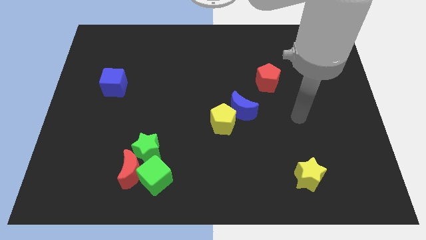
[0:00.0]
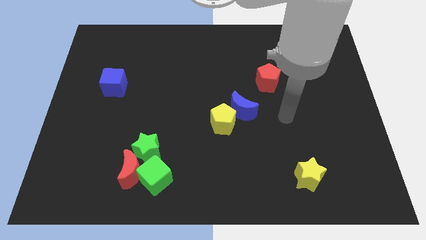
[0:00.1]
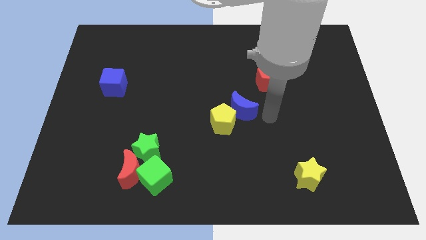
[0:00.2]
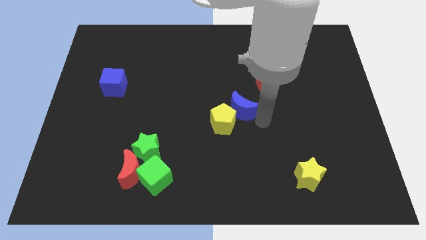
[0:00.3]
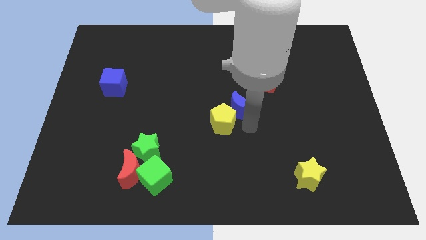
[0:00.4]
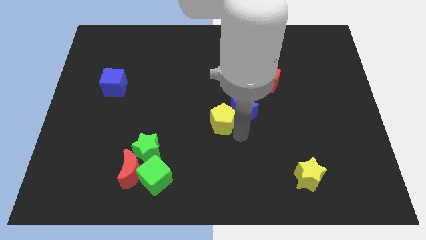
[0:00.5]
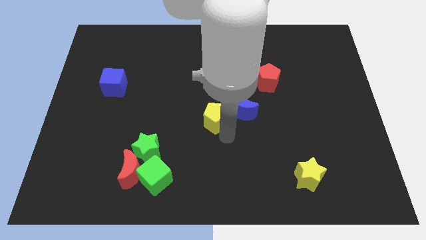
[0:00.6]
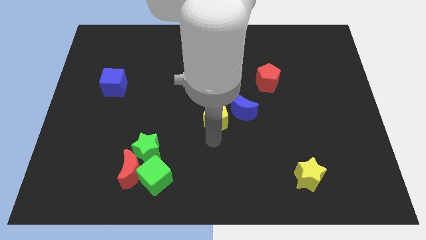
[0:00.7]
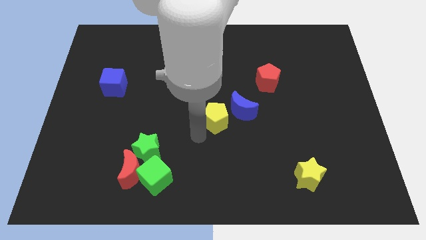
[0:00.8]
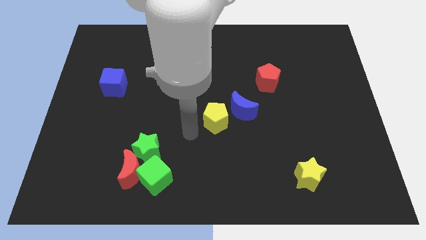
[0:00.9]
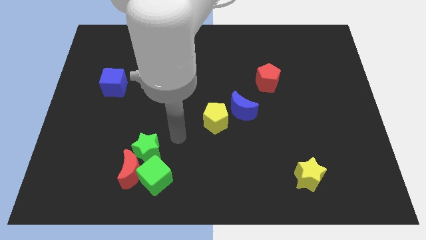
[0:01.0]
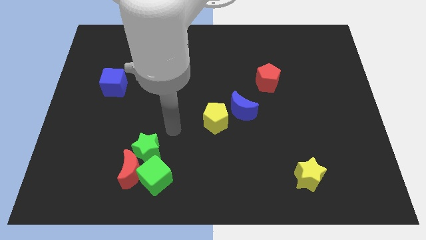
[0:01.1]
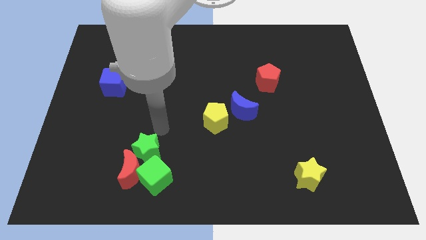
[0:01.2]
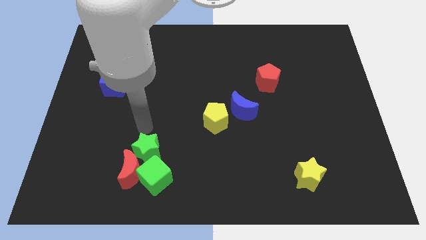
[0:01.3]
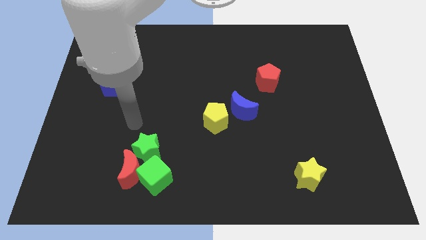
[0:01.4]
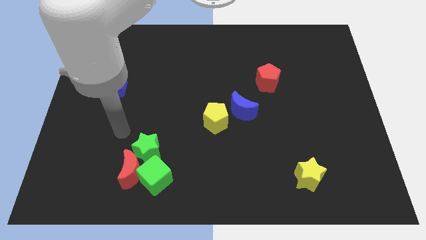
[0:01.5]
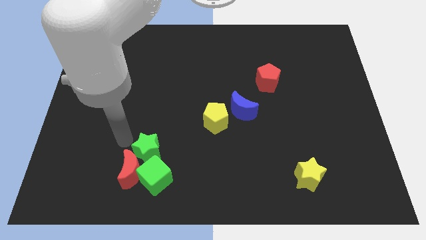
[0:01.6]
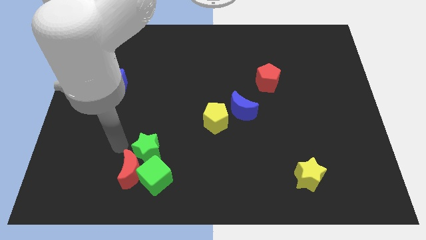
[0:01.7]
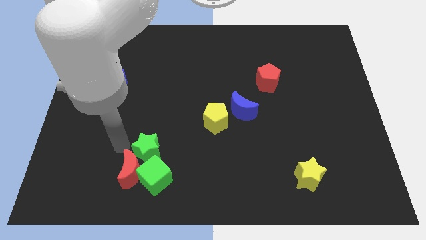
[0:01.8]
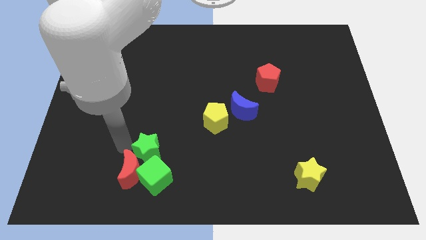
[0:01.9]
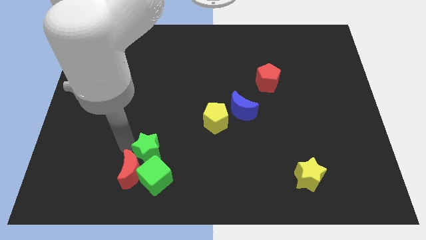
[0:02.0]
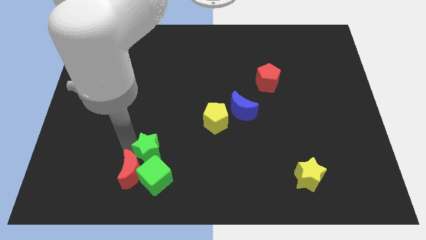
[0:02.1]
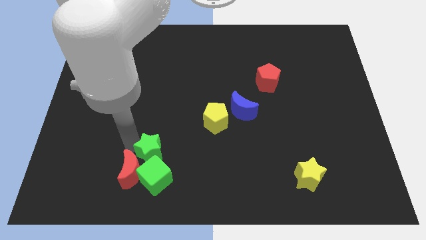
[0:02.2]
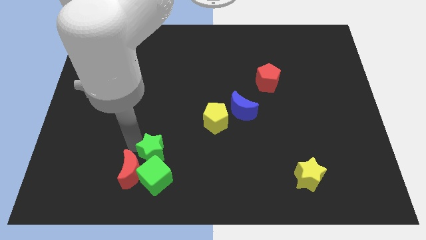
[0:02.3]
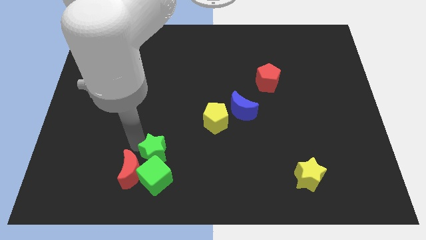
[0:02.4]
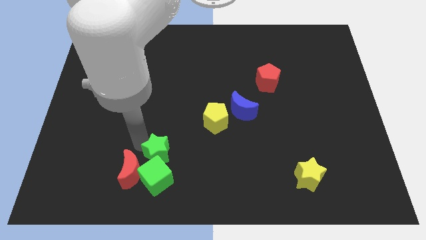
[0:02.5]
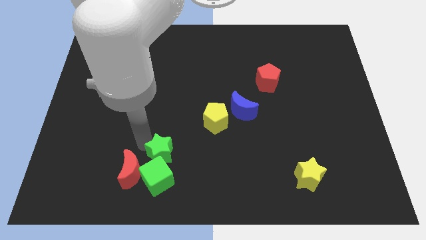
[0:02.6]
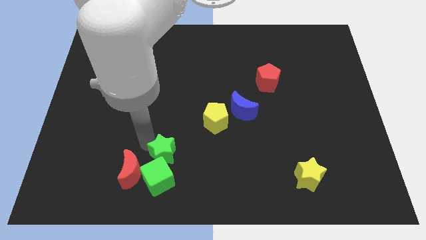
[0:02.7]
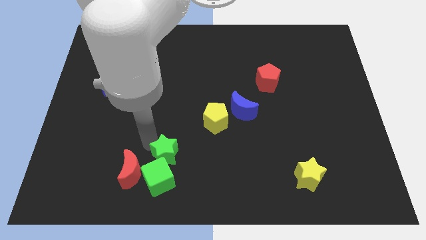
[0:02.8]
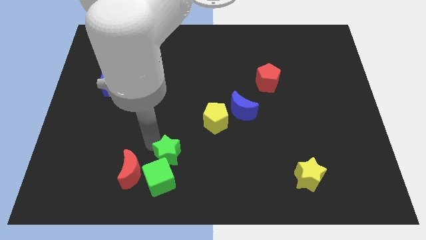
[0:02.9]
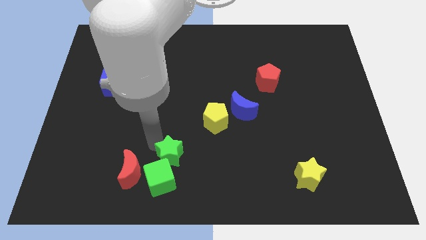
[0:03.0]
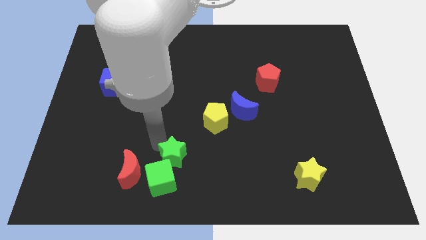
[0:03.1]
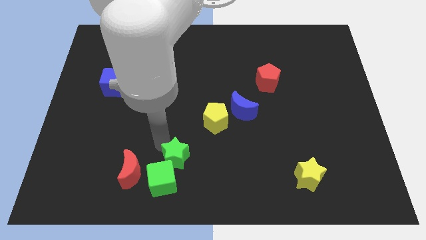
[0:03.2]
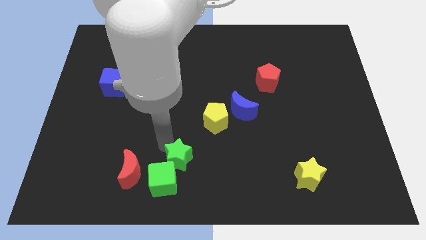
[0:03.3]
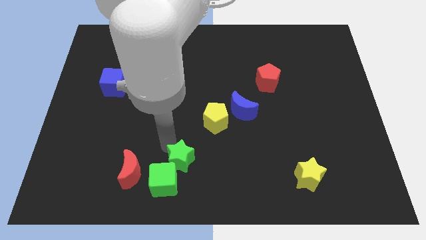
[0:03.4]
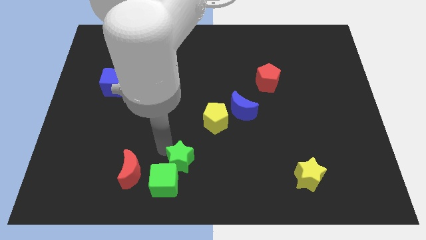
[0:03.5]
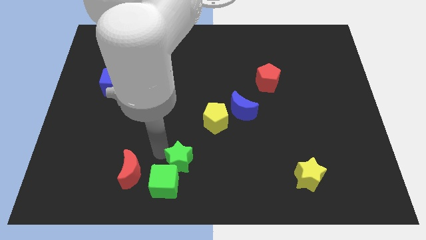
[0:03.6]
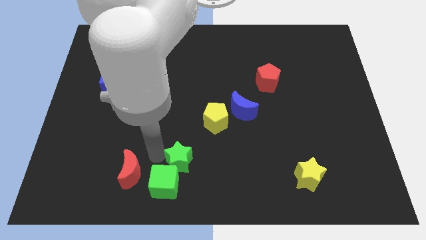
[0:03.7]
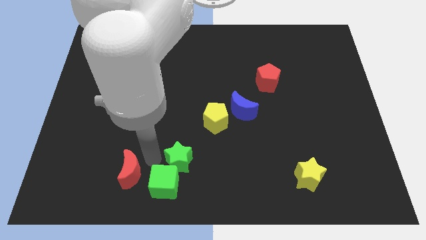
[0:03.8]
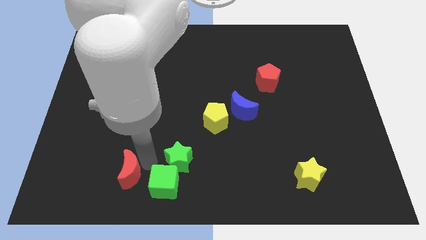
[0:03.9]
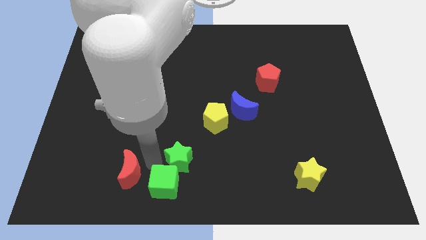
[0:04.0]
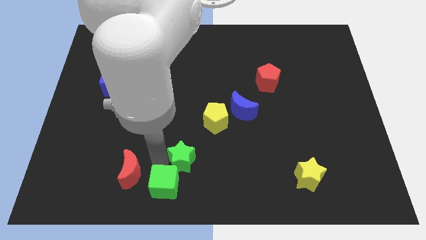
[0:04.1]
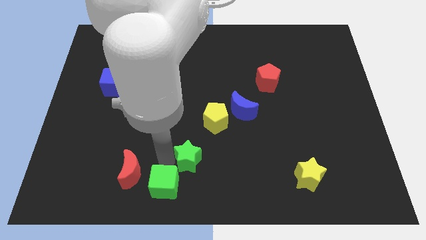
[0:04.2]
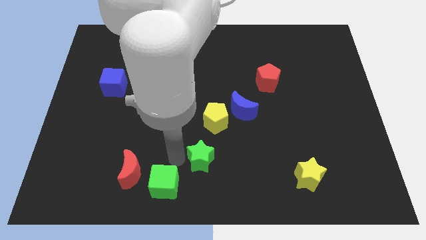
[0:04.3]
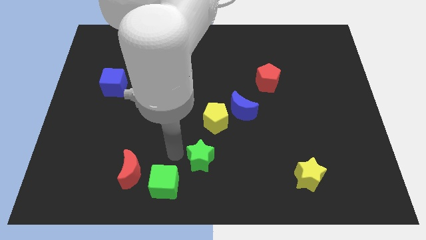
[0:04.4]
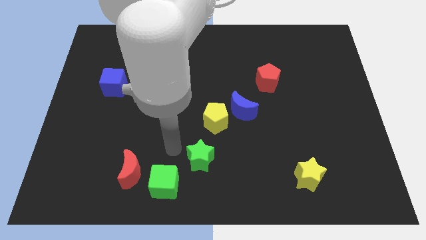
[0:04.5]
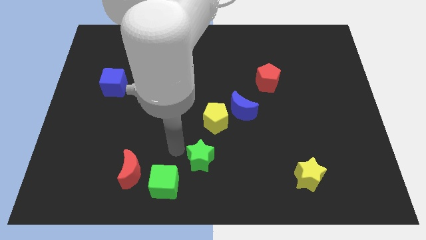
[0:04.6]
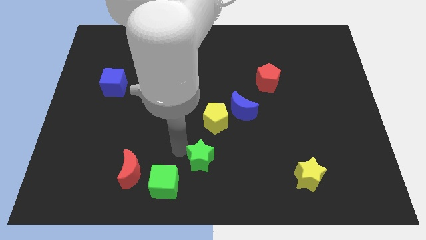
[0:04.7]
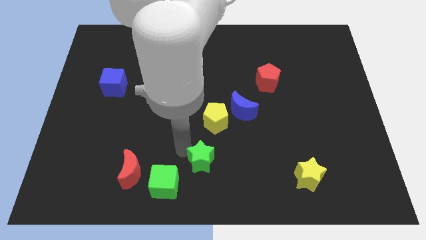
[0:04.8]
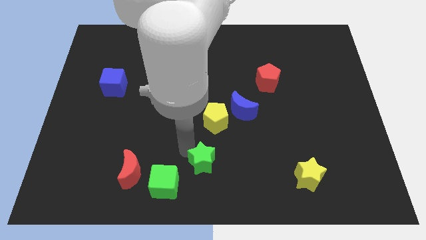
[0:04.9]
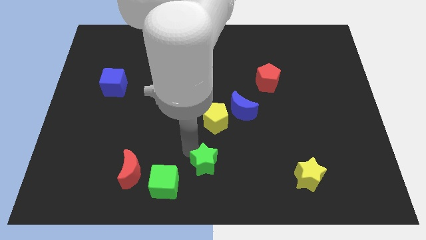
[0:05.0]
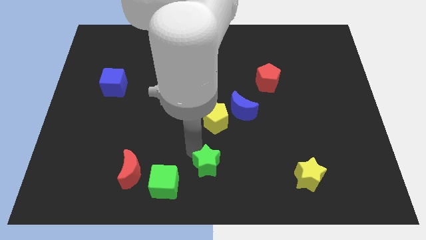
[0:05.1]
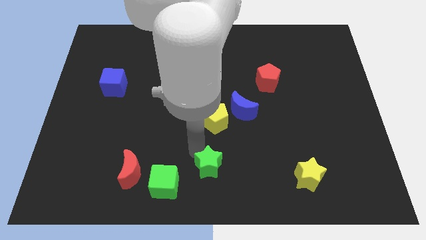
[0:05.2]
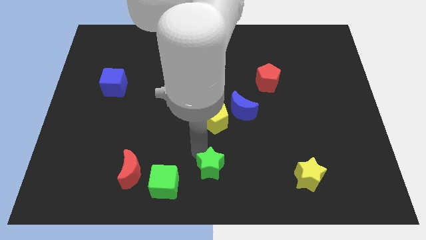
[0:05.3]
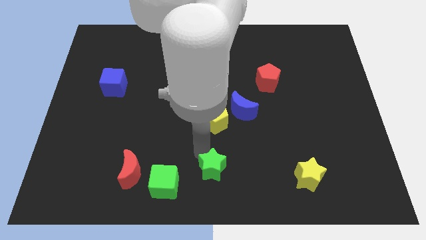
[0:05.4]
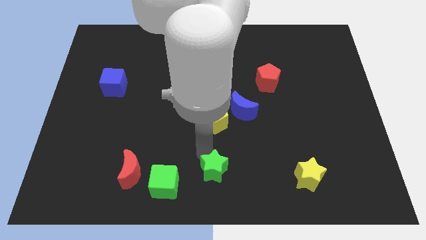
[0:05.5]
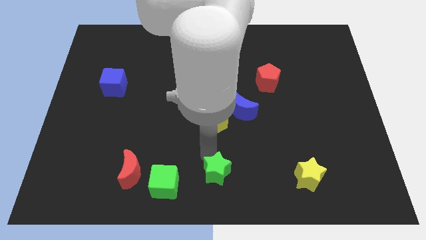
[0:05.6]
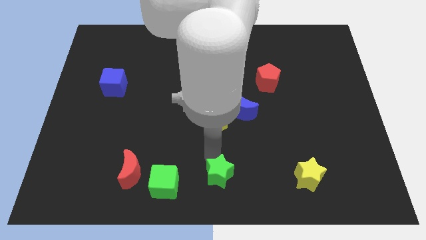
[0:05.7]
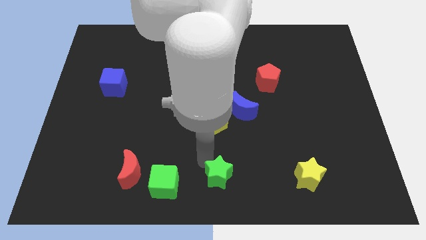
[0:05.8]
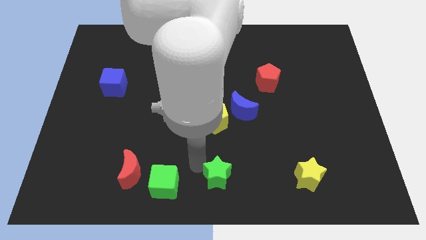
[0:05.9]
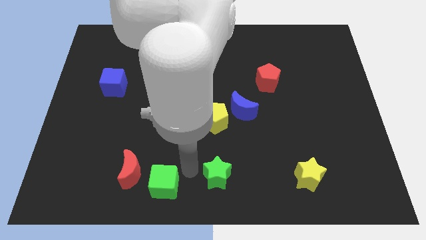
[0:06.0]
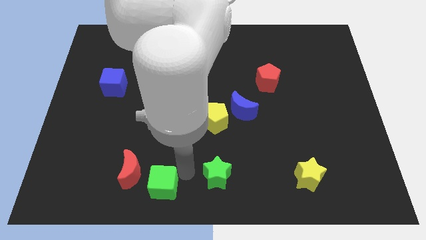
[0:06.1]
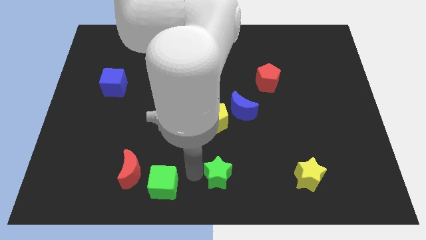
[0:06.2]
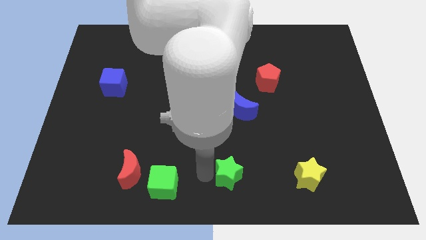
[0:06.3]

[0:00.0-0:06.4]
slide the green star to the left of the yellow star
